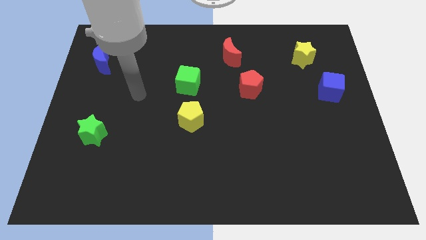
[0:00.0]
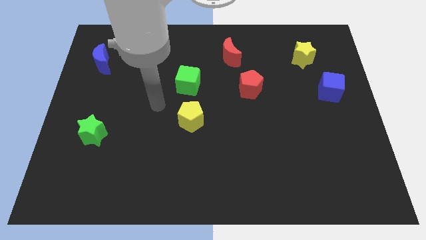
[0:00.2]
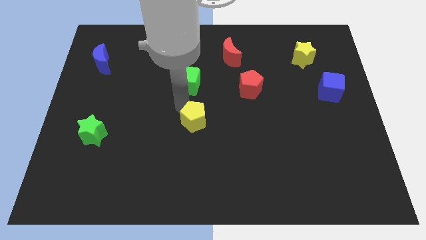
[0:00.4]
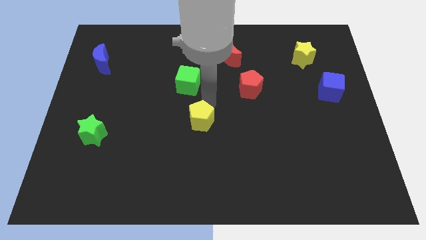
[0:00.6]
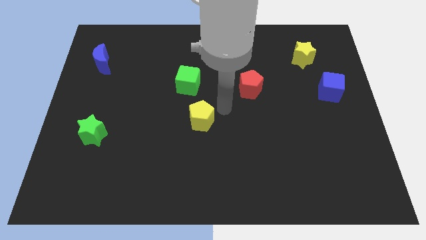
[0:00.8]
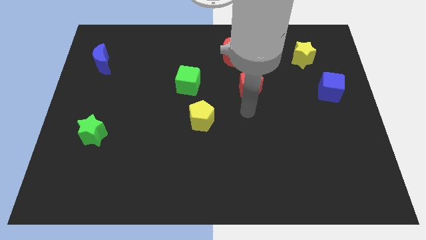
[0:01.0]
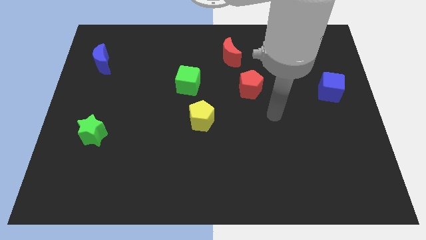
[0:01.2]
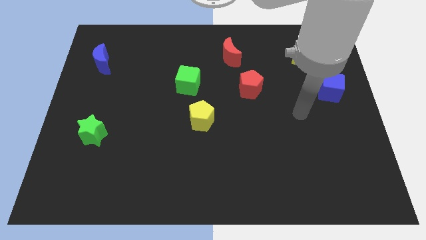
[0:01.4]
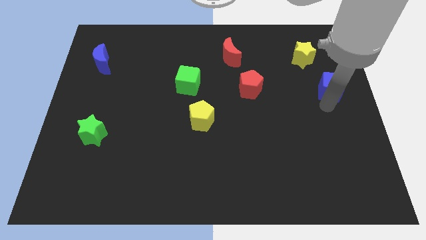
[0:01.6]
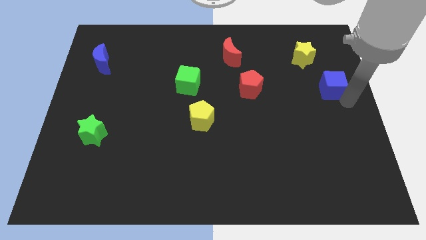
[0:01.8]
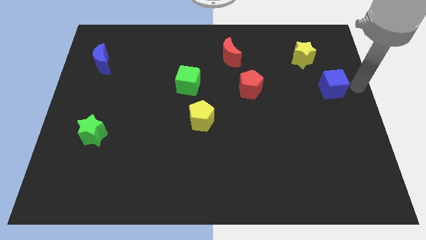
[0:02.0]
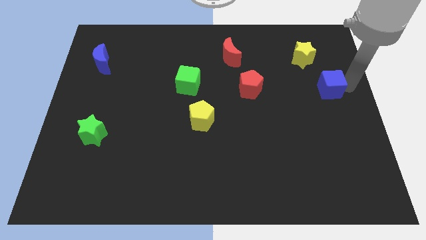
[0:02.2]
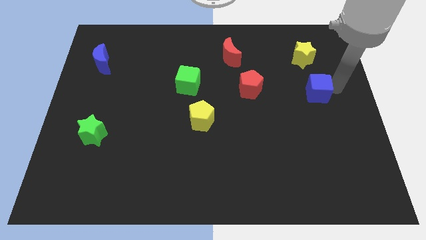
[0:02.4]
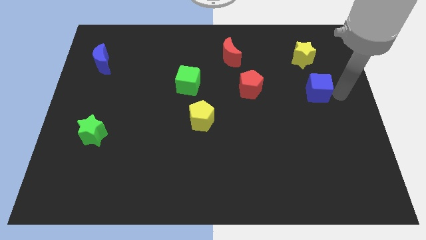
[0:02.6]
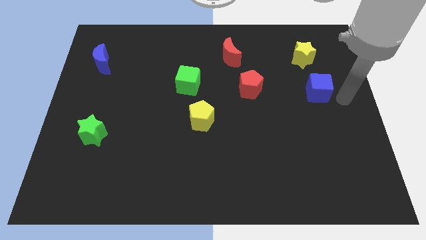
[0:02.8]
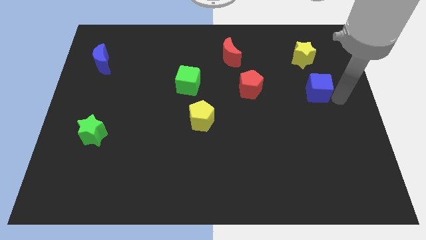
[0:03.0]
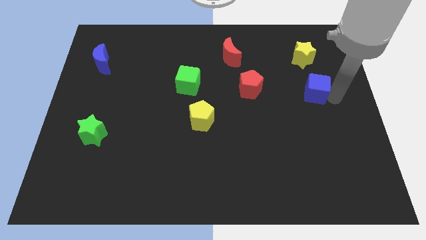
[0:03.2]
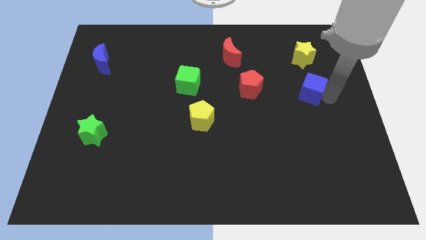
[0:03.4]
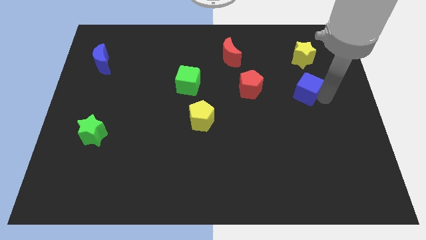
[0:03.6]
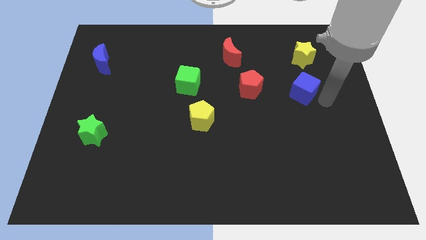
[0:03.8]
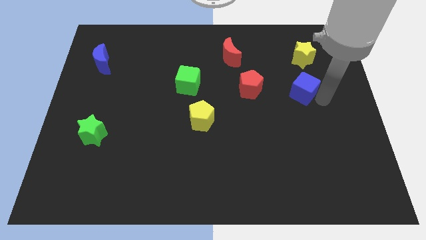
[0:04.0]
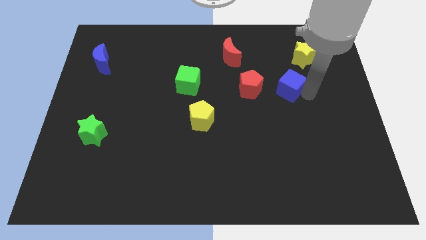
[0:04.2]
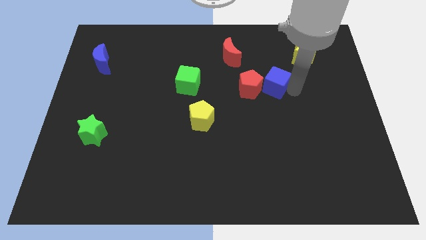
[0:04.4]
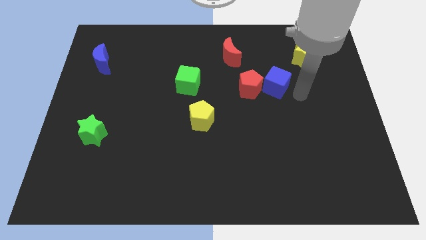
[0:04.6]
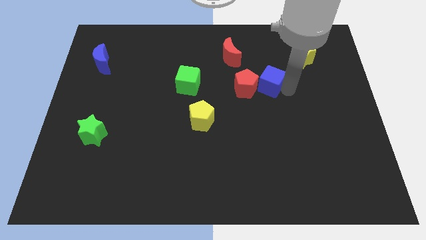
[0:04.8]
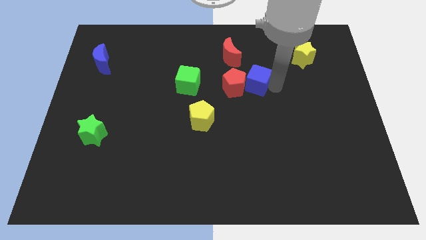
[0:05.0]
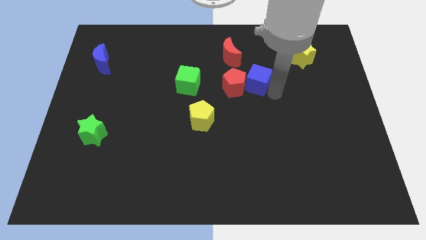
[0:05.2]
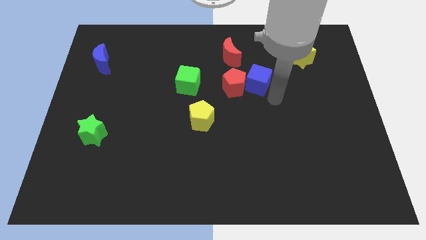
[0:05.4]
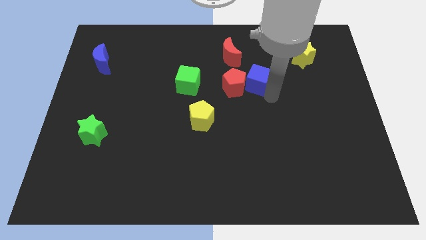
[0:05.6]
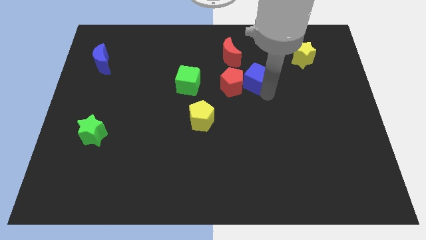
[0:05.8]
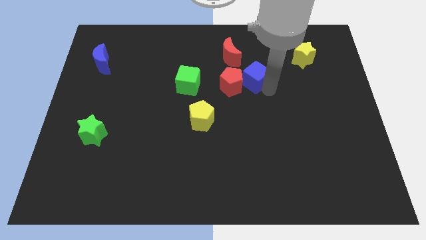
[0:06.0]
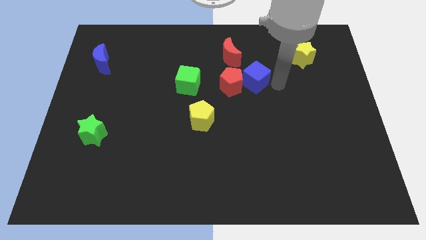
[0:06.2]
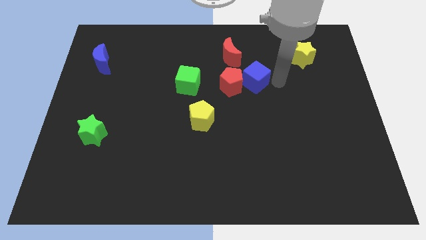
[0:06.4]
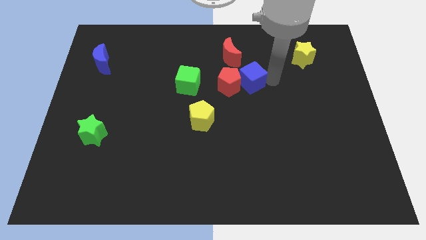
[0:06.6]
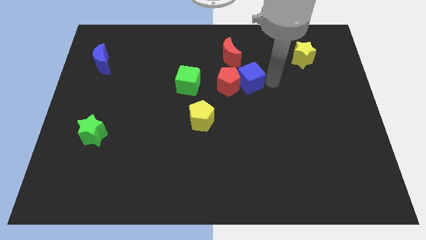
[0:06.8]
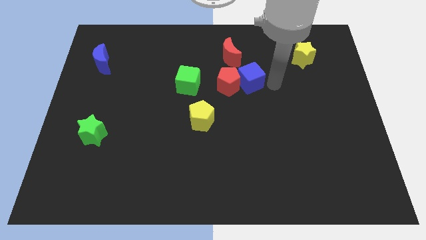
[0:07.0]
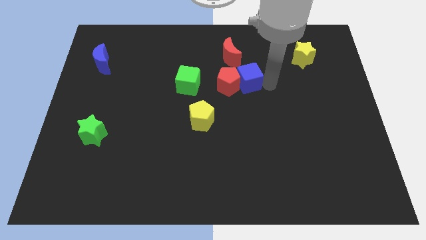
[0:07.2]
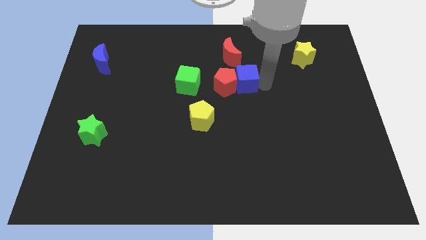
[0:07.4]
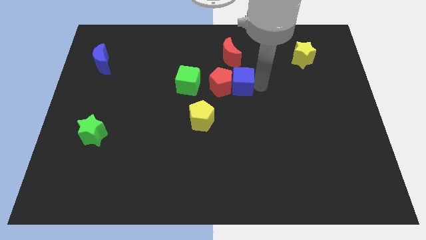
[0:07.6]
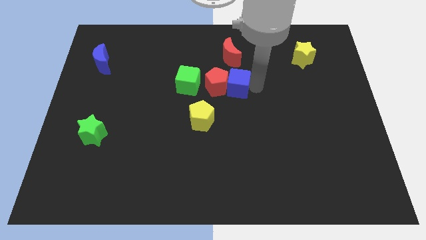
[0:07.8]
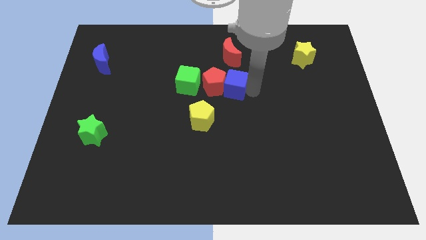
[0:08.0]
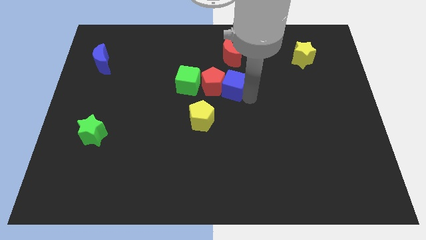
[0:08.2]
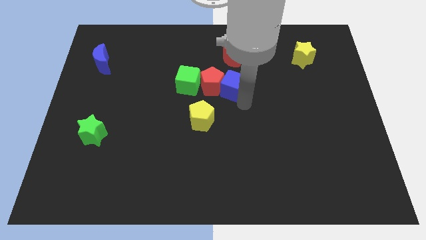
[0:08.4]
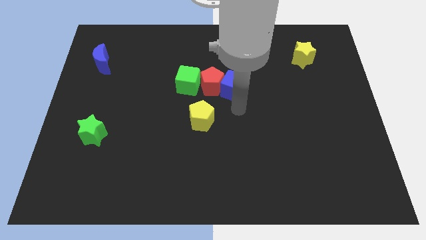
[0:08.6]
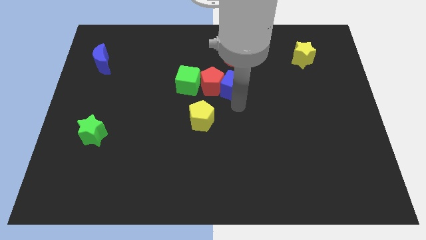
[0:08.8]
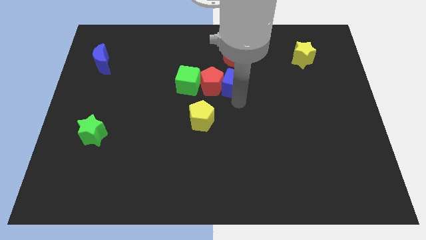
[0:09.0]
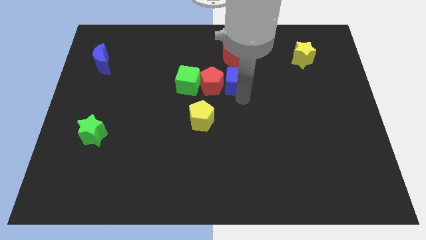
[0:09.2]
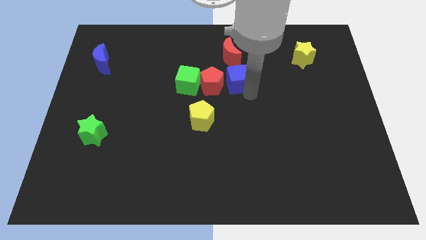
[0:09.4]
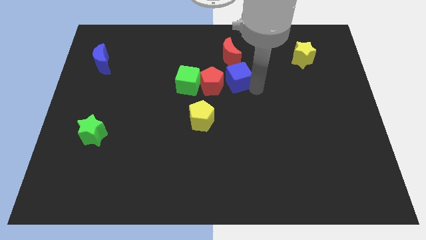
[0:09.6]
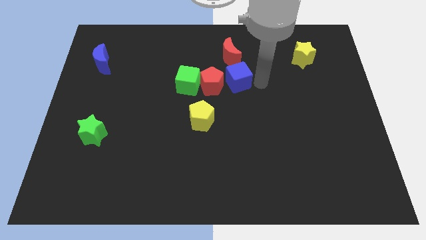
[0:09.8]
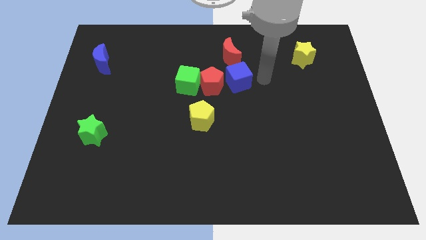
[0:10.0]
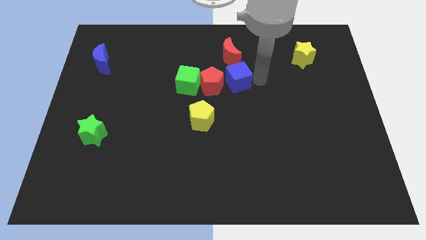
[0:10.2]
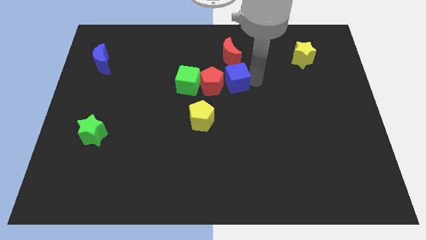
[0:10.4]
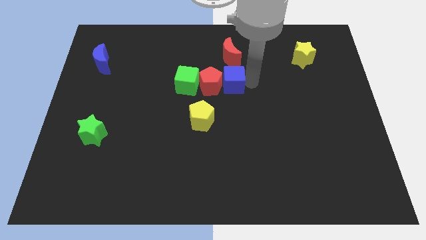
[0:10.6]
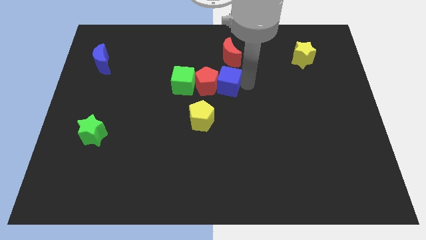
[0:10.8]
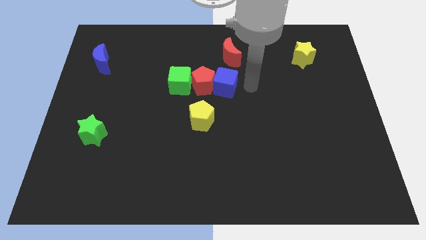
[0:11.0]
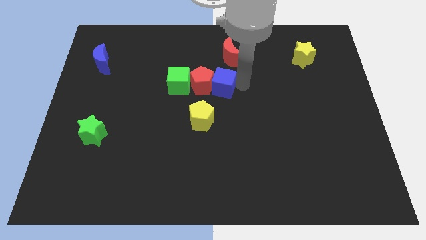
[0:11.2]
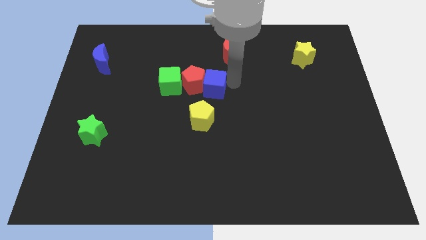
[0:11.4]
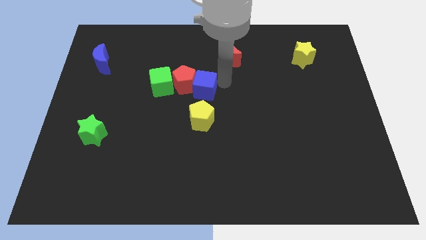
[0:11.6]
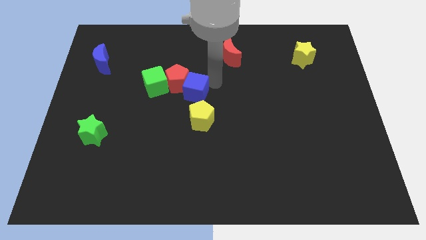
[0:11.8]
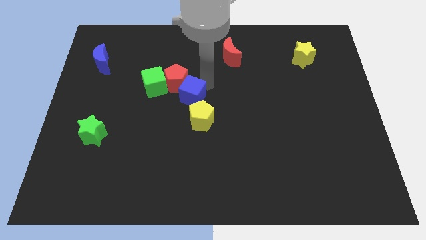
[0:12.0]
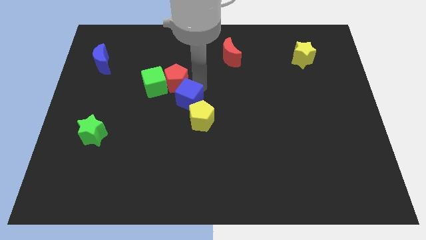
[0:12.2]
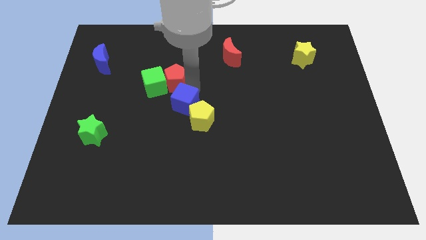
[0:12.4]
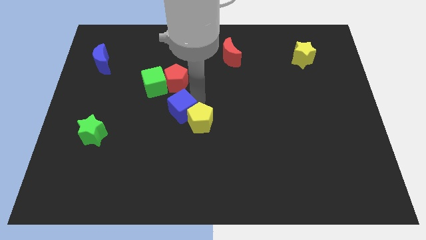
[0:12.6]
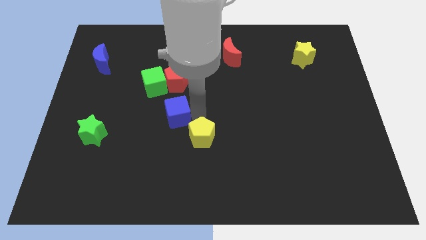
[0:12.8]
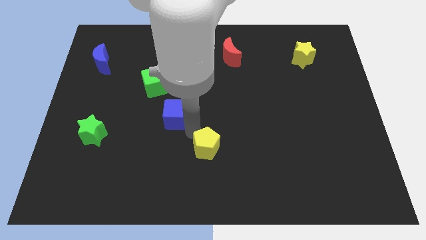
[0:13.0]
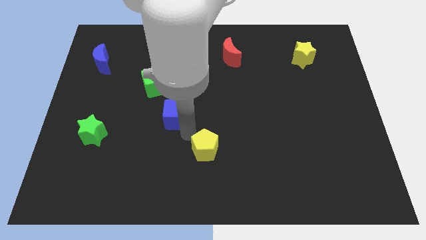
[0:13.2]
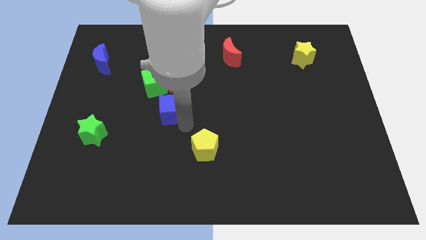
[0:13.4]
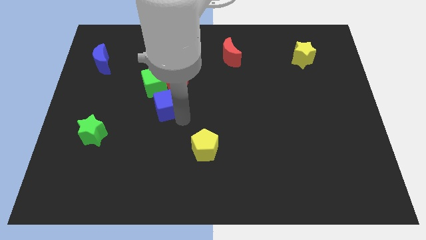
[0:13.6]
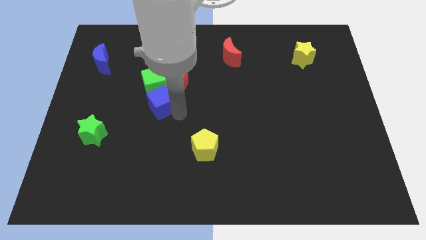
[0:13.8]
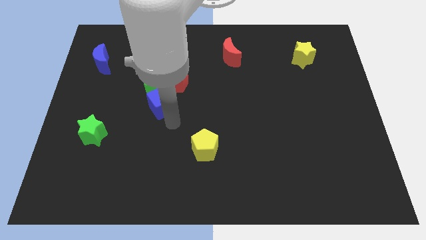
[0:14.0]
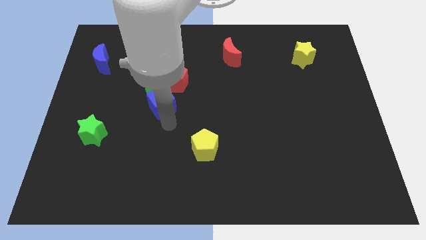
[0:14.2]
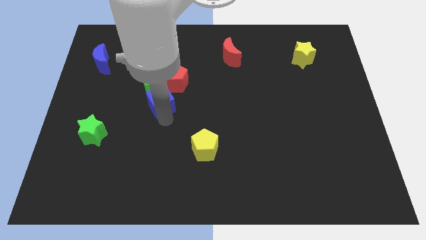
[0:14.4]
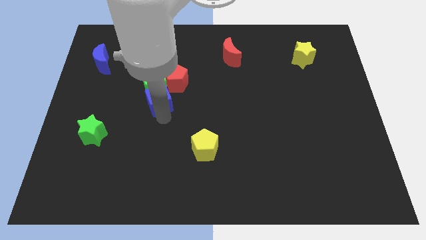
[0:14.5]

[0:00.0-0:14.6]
push the blue cube to the green cube
